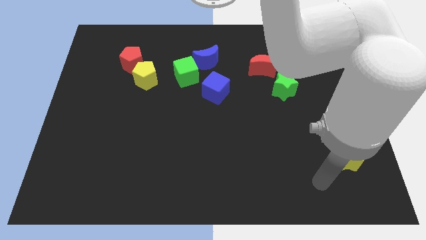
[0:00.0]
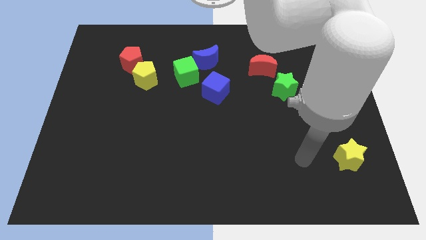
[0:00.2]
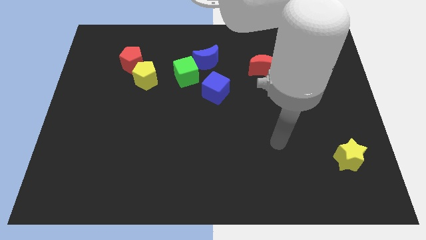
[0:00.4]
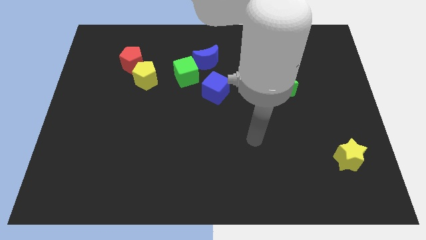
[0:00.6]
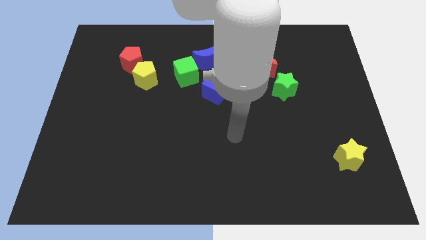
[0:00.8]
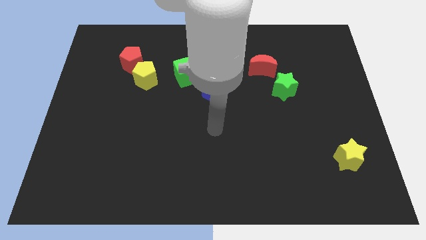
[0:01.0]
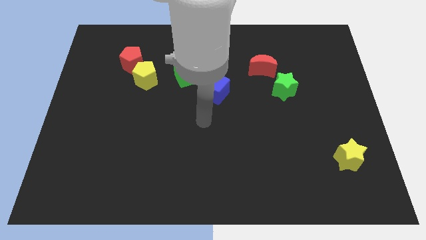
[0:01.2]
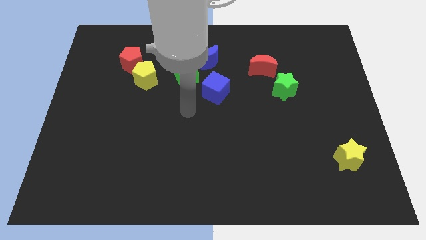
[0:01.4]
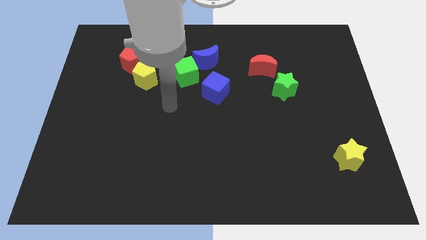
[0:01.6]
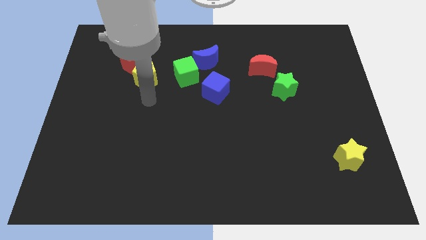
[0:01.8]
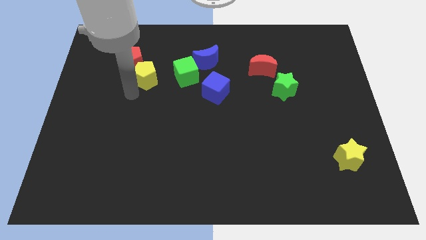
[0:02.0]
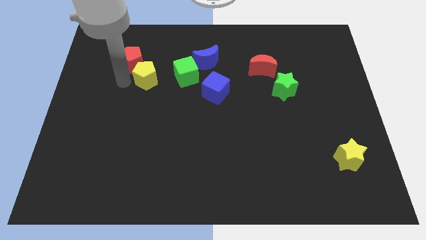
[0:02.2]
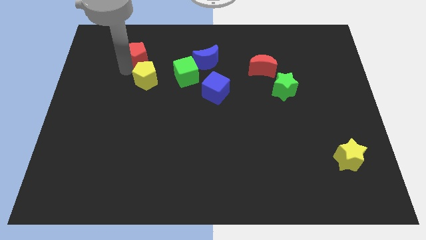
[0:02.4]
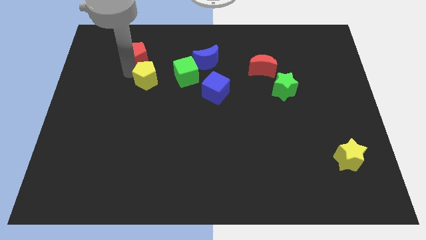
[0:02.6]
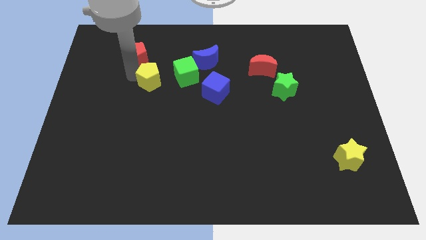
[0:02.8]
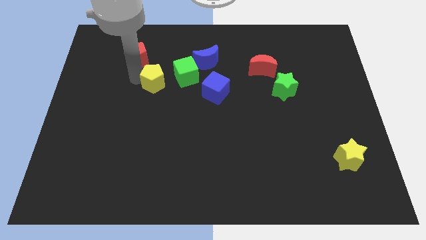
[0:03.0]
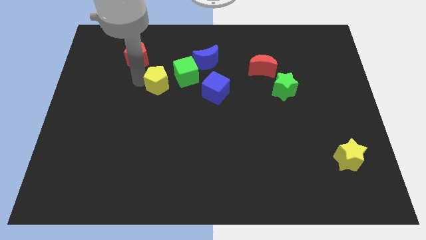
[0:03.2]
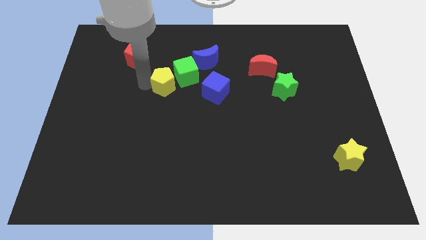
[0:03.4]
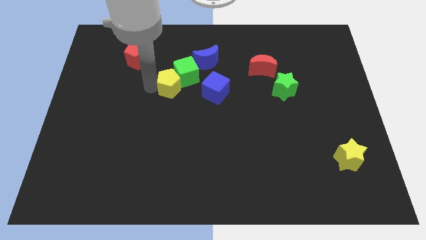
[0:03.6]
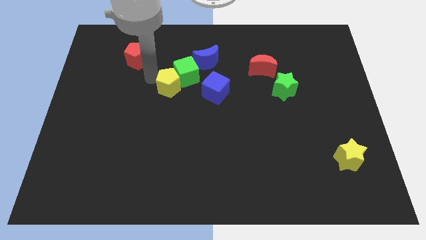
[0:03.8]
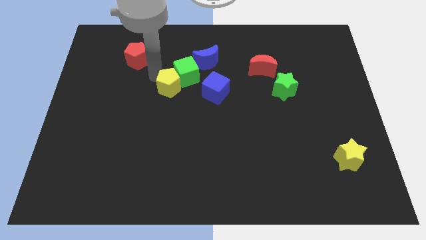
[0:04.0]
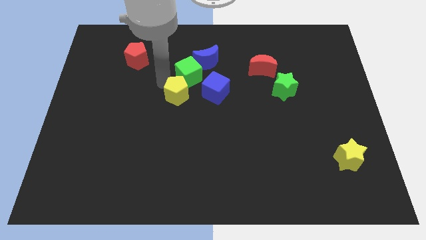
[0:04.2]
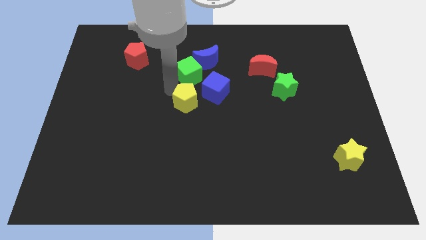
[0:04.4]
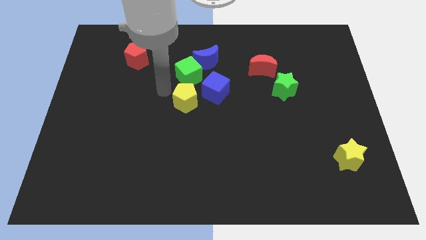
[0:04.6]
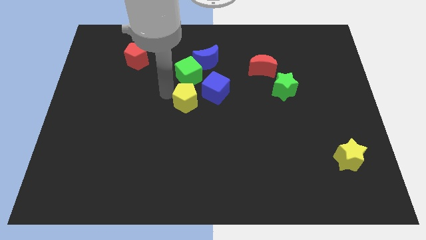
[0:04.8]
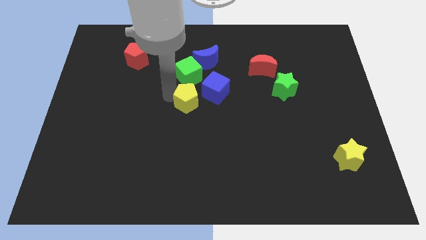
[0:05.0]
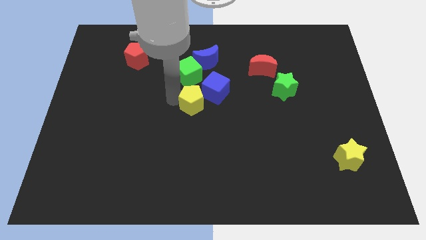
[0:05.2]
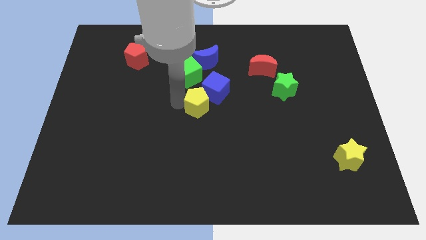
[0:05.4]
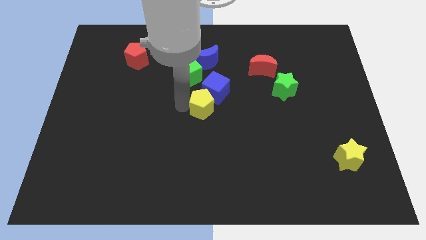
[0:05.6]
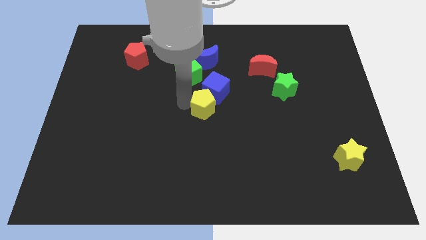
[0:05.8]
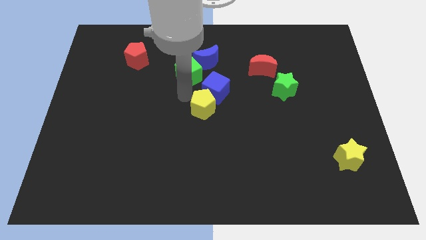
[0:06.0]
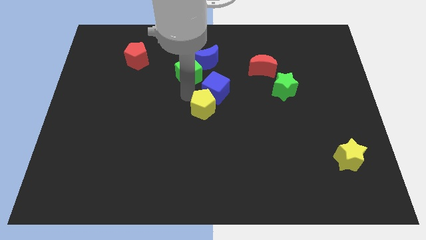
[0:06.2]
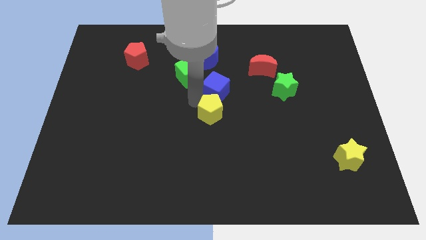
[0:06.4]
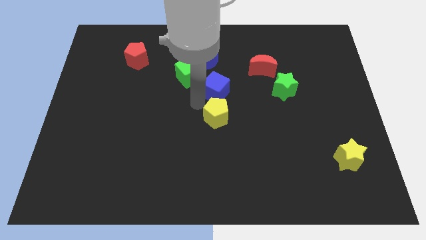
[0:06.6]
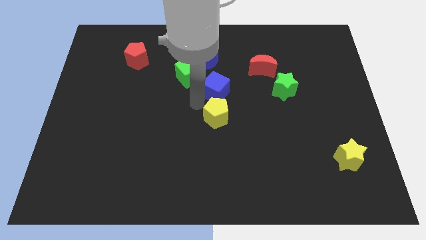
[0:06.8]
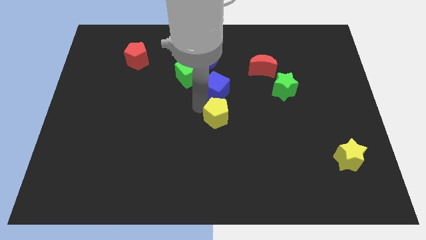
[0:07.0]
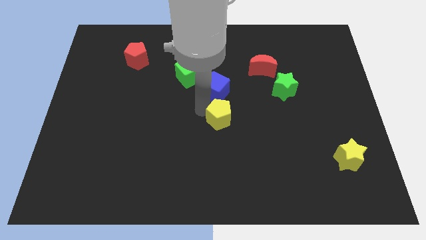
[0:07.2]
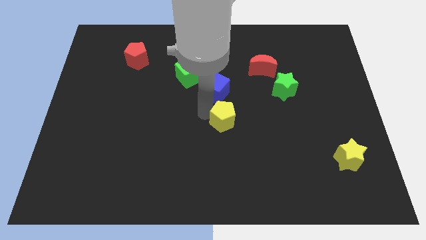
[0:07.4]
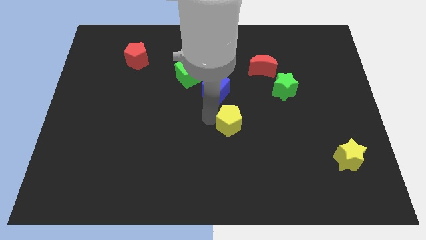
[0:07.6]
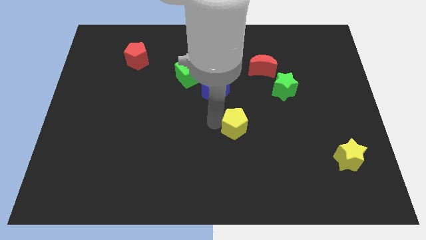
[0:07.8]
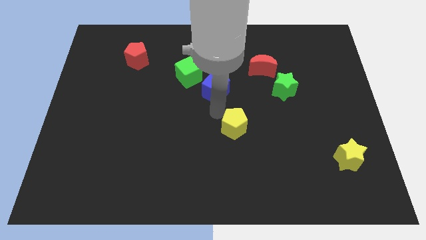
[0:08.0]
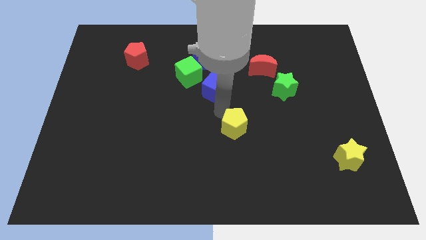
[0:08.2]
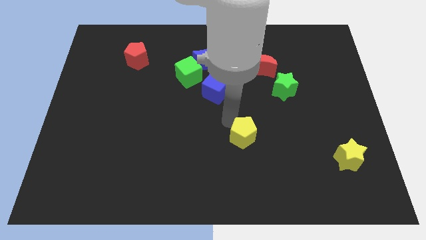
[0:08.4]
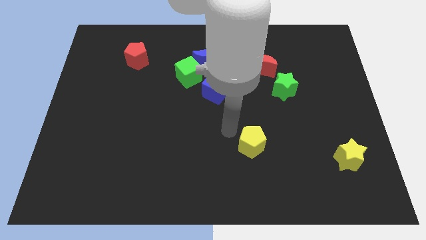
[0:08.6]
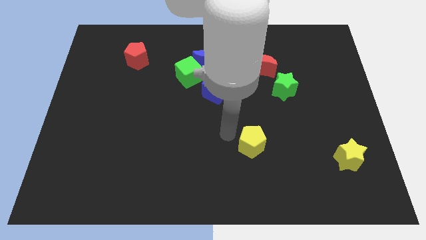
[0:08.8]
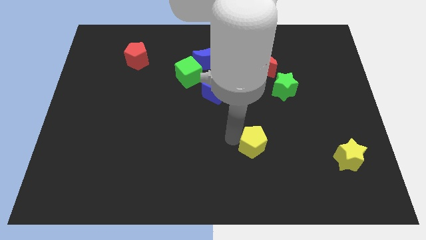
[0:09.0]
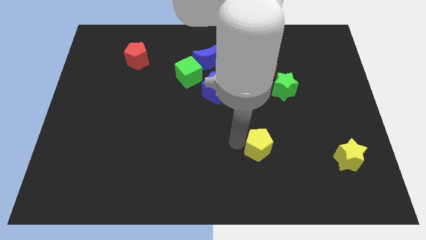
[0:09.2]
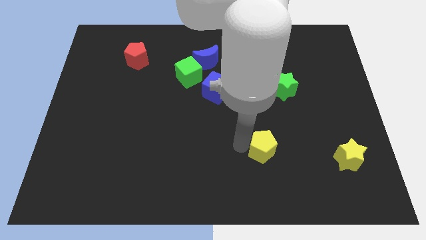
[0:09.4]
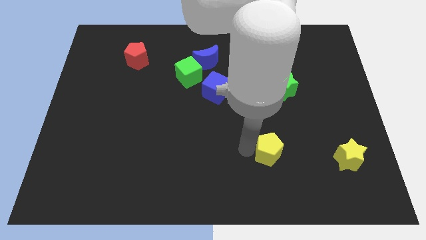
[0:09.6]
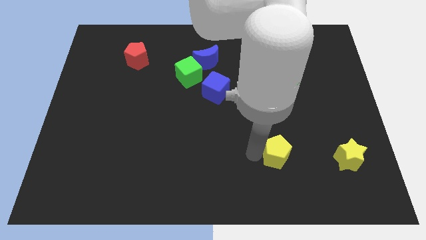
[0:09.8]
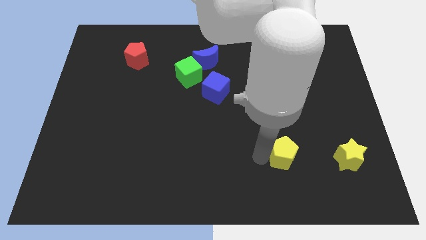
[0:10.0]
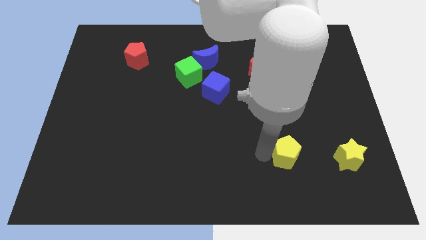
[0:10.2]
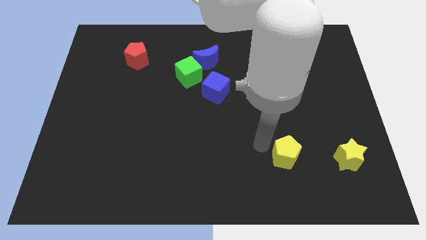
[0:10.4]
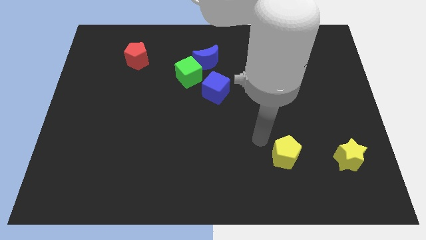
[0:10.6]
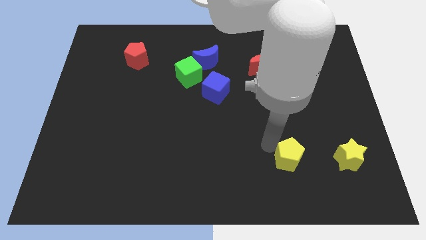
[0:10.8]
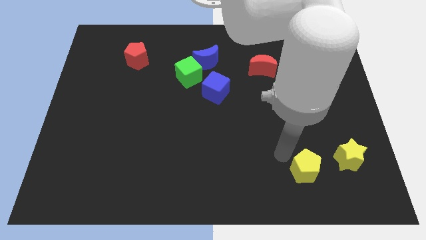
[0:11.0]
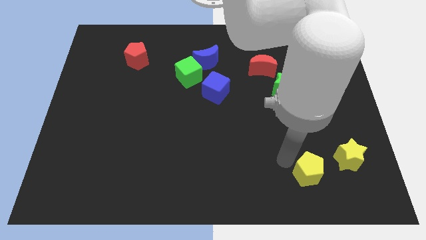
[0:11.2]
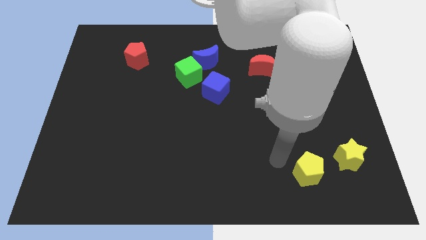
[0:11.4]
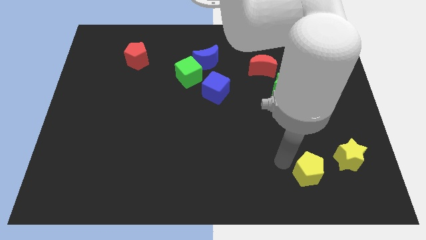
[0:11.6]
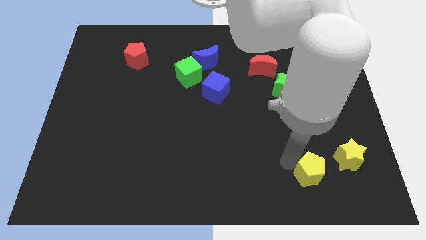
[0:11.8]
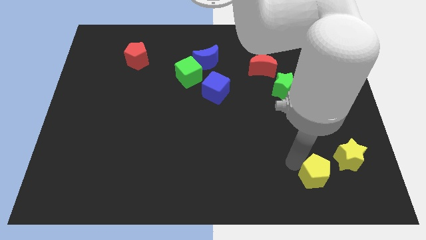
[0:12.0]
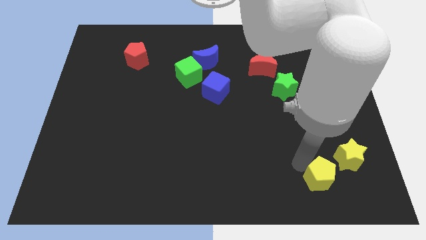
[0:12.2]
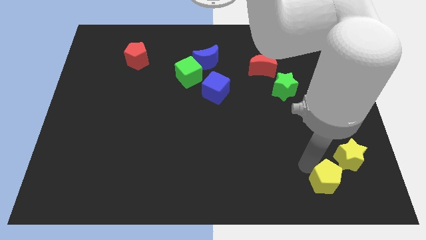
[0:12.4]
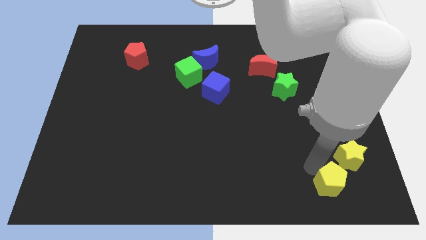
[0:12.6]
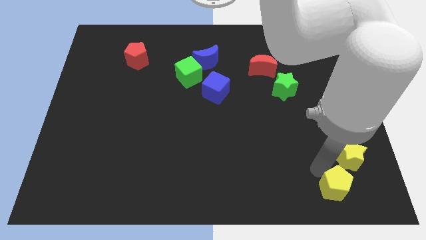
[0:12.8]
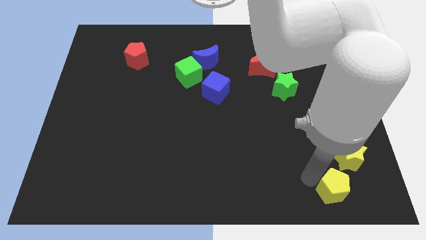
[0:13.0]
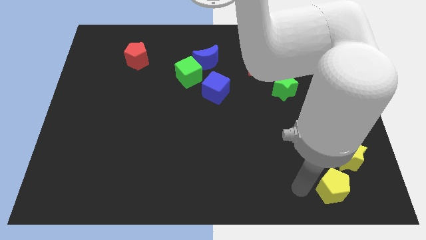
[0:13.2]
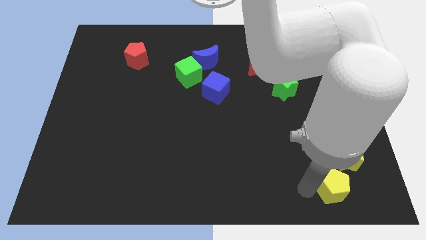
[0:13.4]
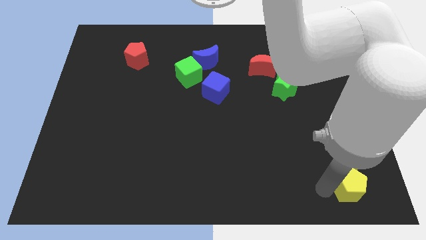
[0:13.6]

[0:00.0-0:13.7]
push the yellow pentagon to the bottom right
